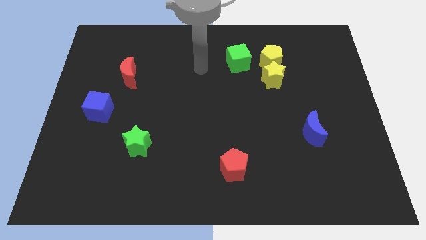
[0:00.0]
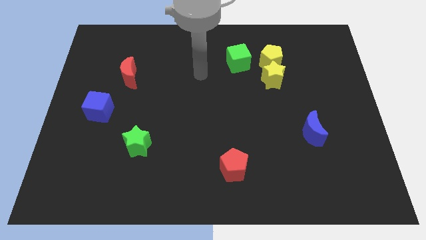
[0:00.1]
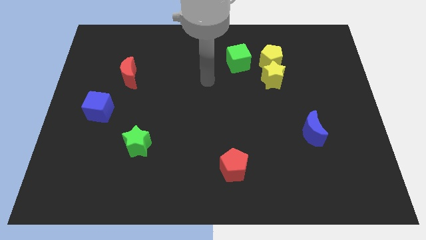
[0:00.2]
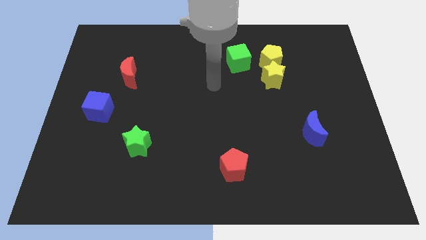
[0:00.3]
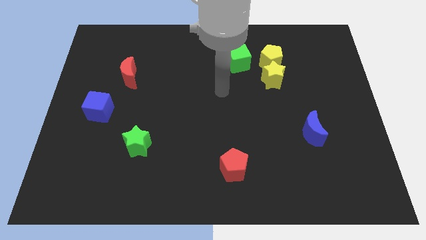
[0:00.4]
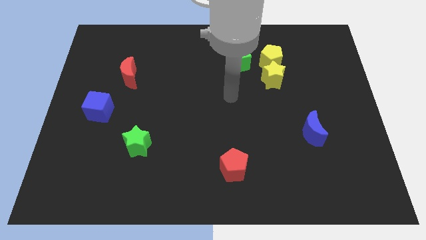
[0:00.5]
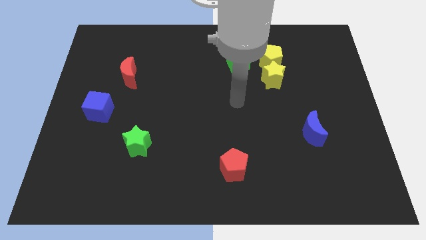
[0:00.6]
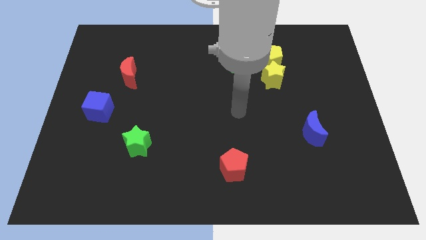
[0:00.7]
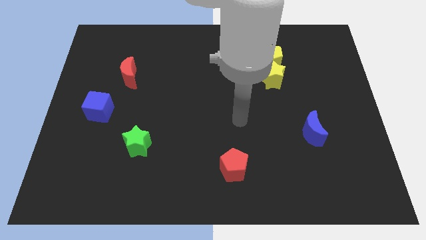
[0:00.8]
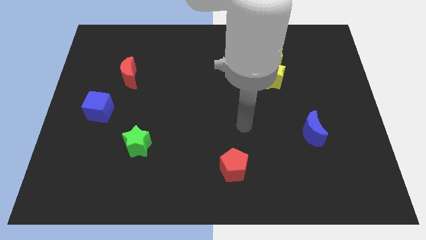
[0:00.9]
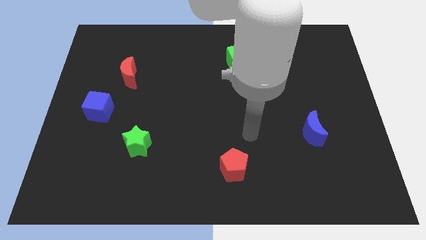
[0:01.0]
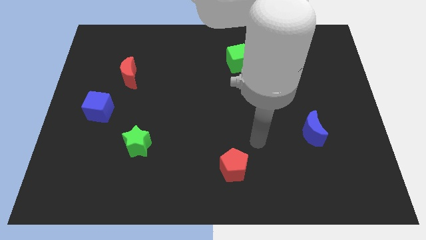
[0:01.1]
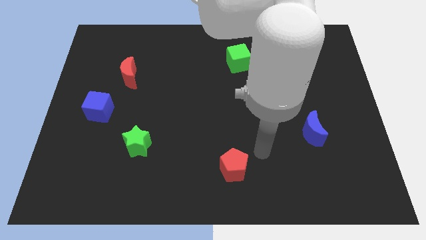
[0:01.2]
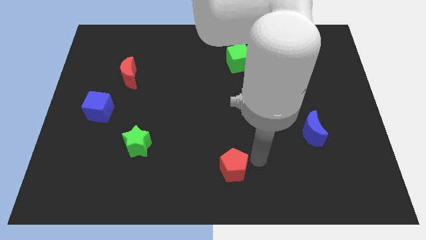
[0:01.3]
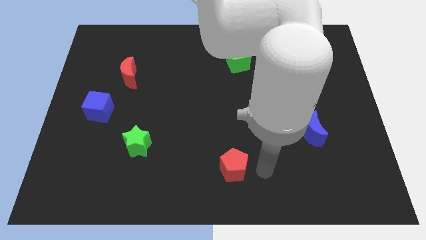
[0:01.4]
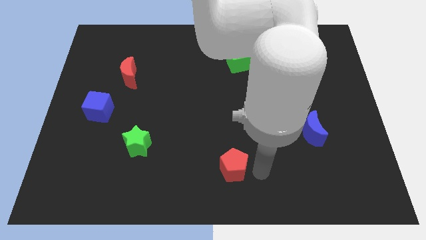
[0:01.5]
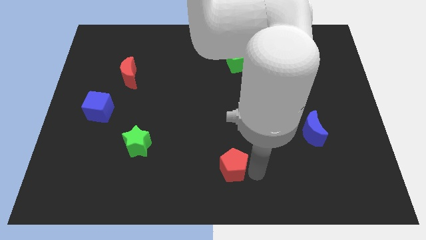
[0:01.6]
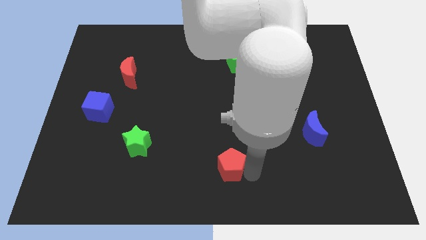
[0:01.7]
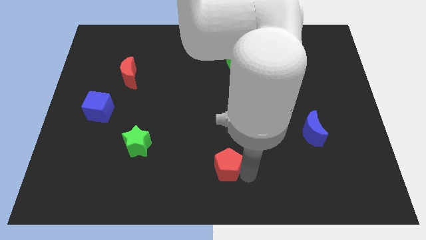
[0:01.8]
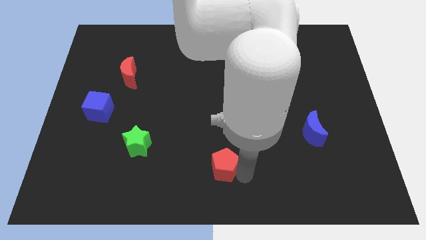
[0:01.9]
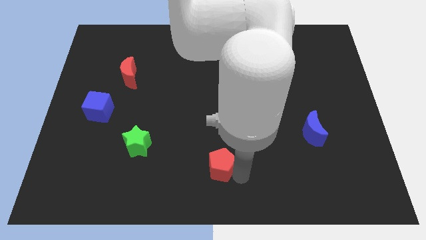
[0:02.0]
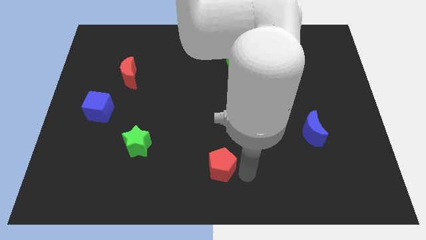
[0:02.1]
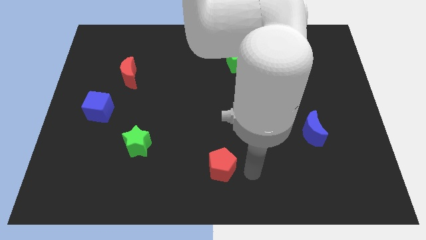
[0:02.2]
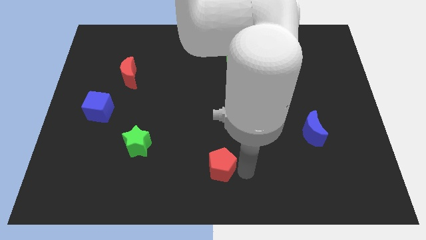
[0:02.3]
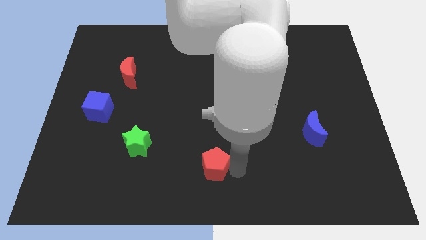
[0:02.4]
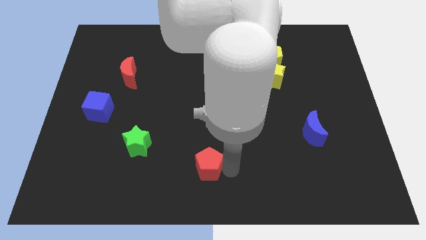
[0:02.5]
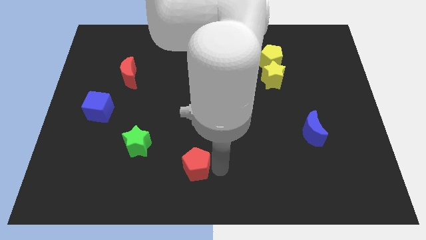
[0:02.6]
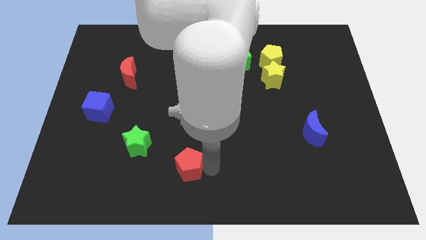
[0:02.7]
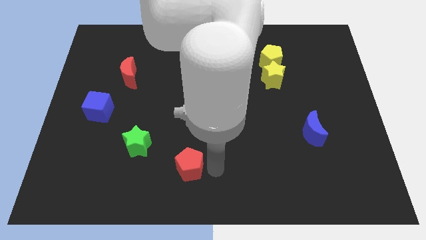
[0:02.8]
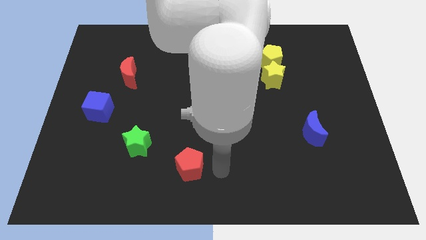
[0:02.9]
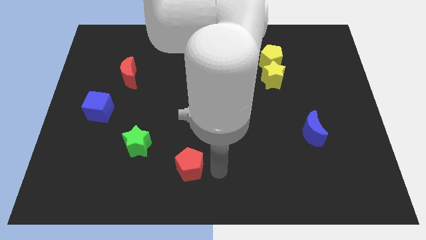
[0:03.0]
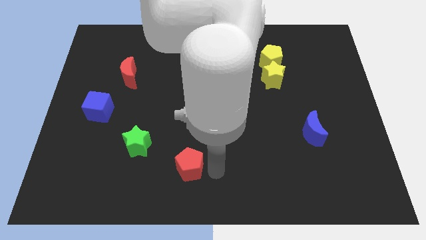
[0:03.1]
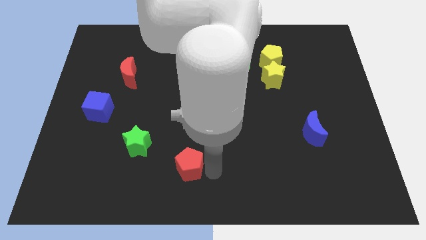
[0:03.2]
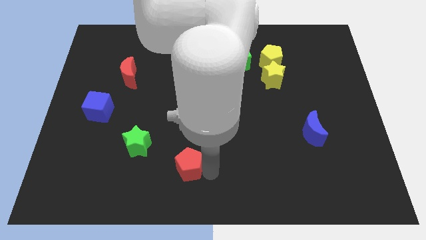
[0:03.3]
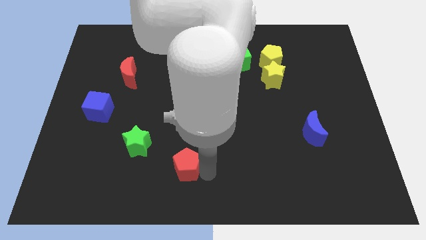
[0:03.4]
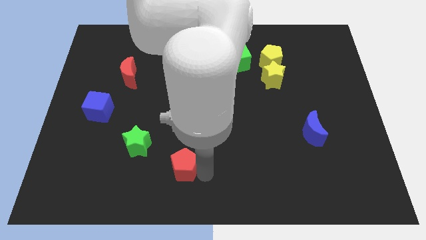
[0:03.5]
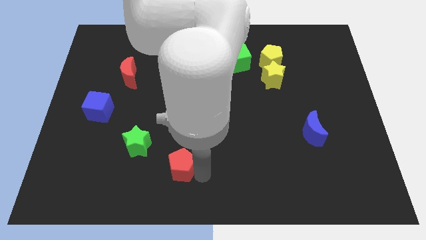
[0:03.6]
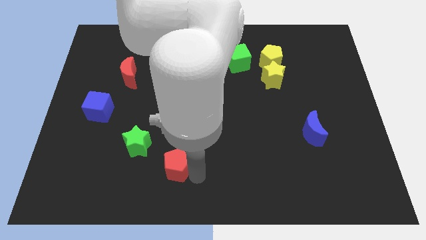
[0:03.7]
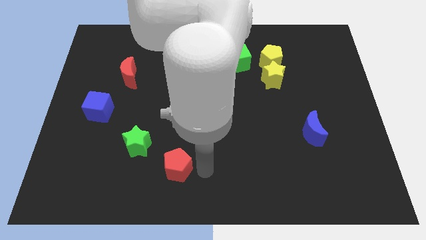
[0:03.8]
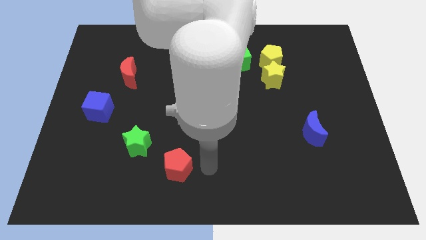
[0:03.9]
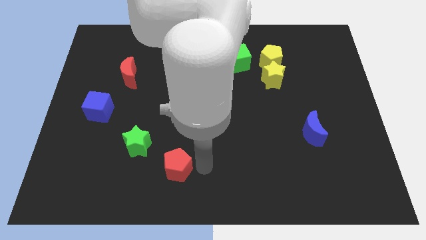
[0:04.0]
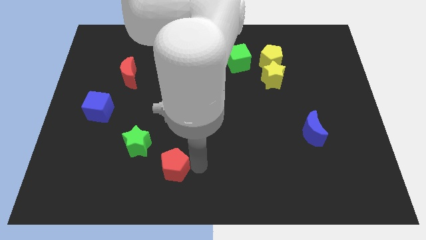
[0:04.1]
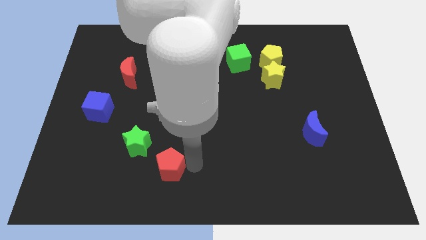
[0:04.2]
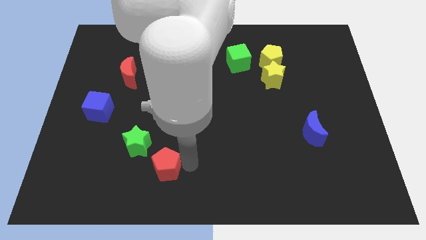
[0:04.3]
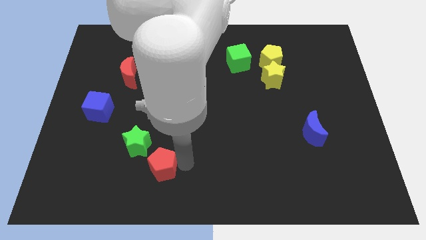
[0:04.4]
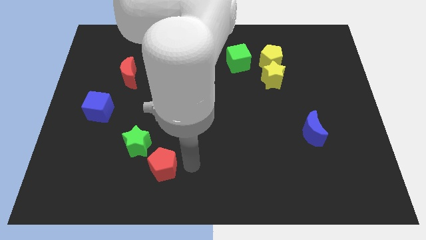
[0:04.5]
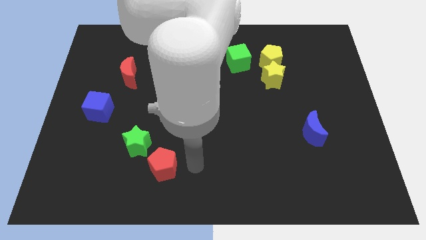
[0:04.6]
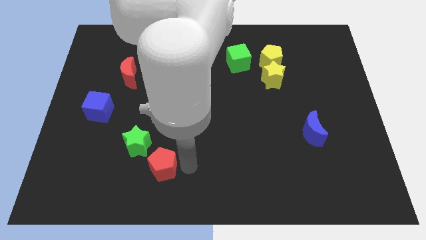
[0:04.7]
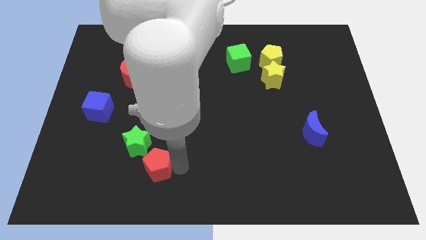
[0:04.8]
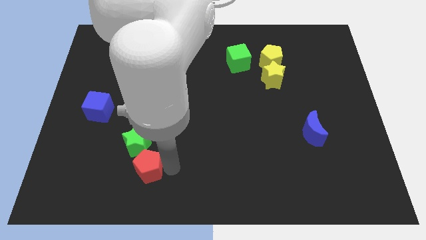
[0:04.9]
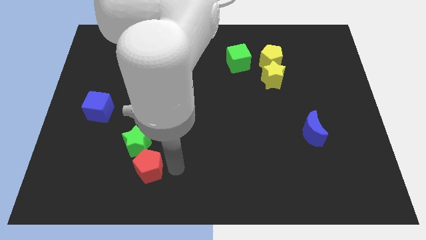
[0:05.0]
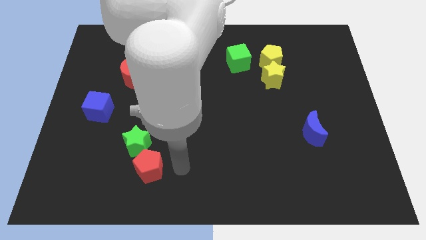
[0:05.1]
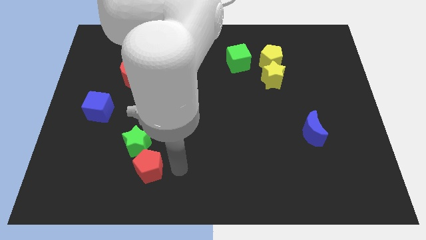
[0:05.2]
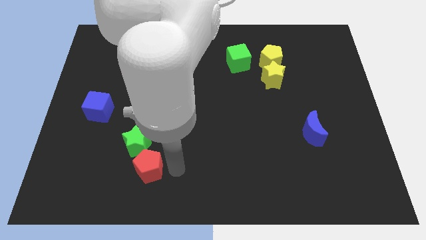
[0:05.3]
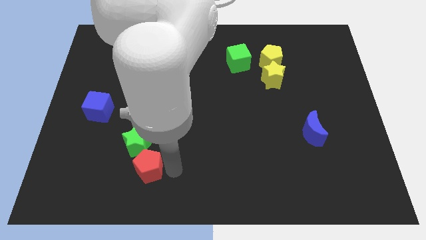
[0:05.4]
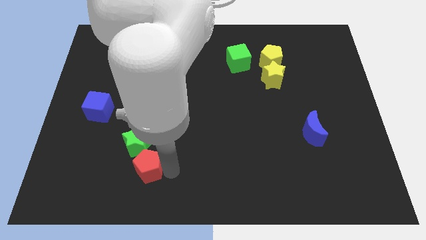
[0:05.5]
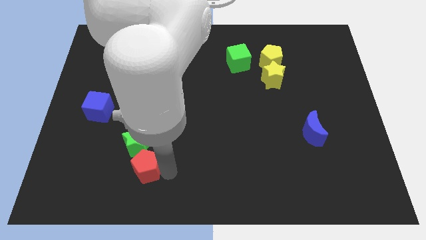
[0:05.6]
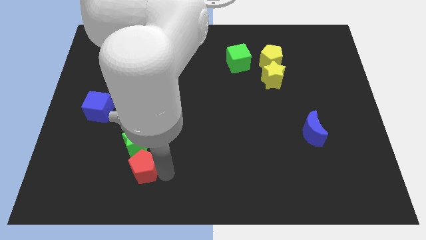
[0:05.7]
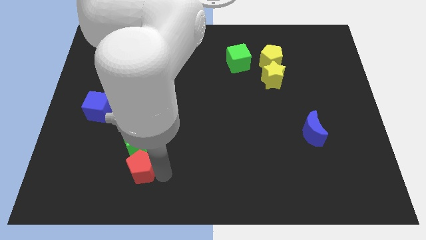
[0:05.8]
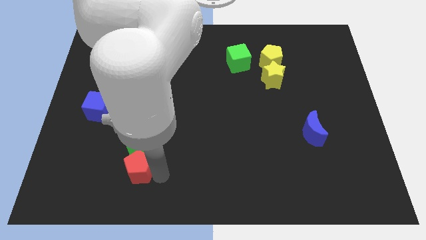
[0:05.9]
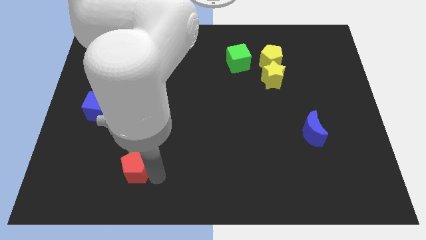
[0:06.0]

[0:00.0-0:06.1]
slide the red pentagon to the left

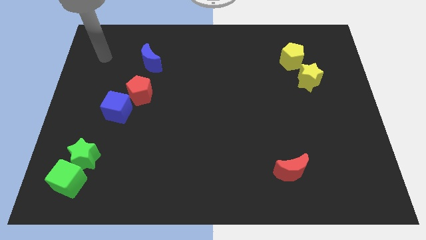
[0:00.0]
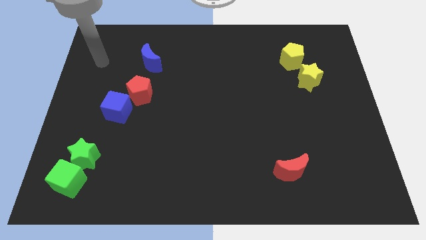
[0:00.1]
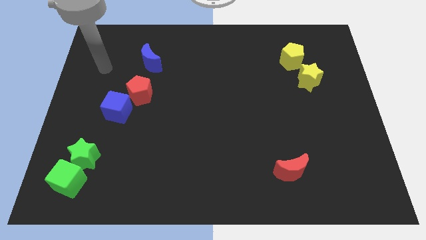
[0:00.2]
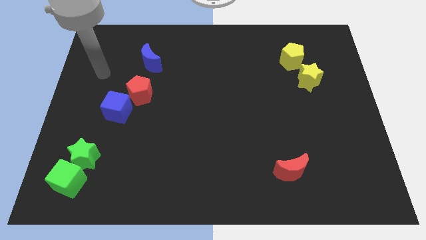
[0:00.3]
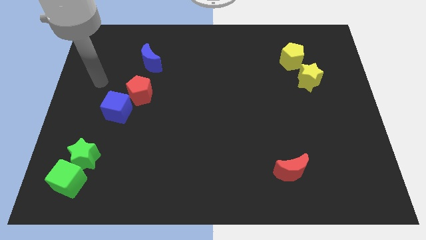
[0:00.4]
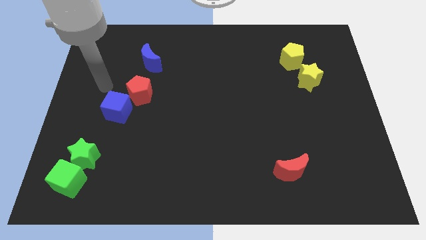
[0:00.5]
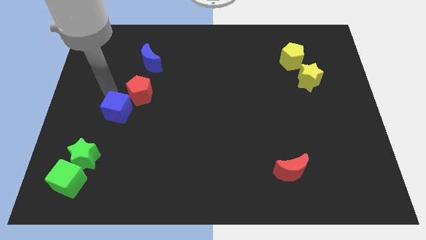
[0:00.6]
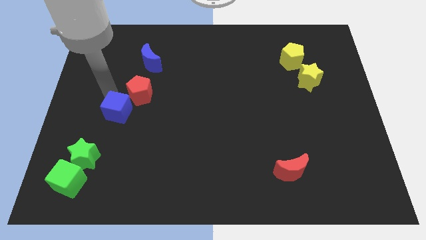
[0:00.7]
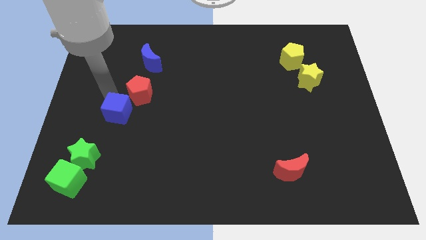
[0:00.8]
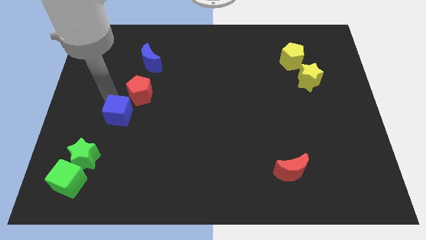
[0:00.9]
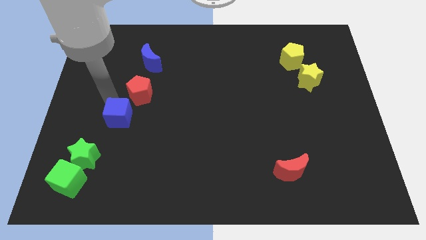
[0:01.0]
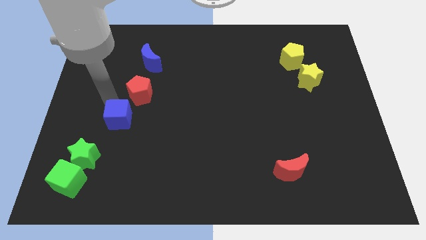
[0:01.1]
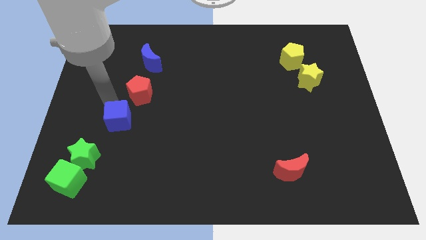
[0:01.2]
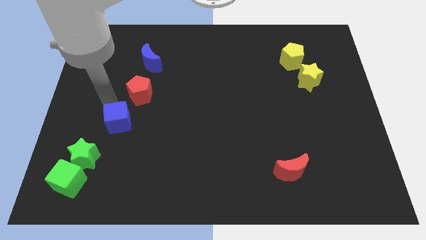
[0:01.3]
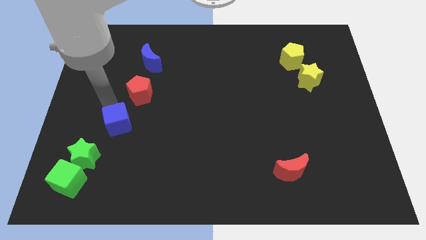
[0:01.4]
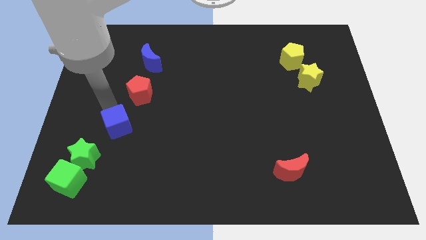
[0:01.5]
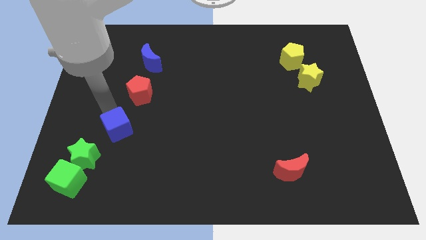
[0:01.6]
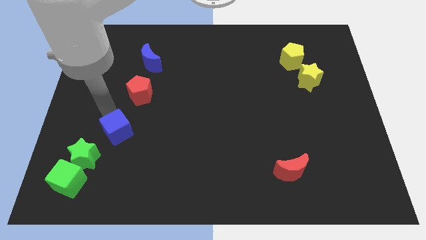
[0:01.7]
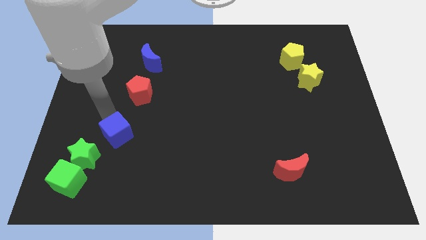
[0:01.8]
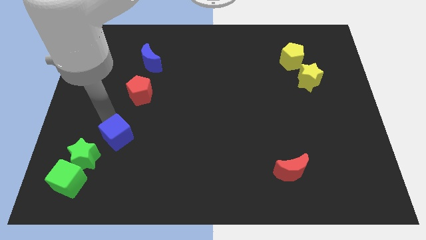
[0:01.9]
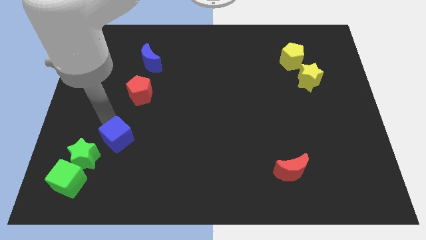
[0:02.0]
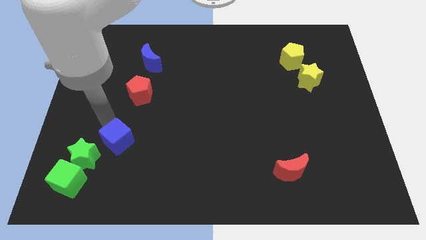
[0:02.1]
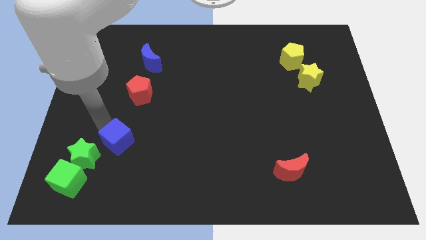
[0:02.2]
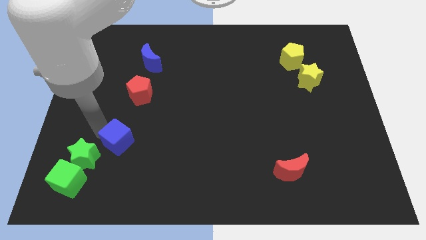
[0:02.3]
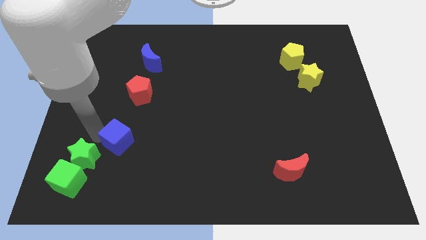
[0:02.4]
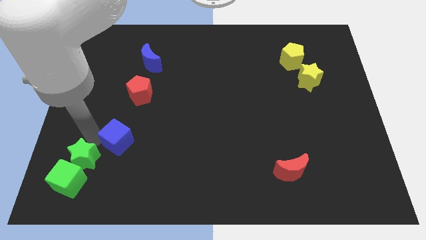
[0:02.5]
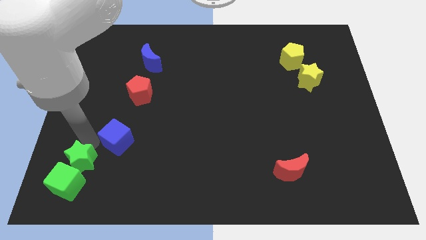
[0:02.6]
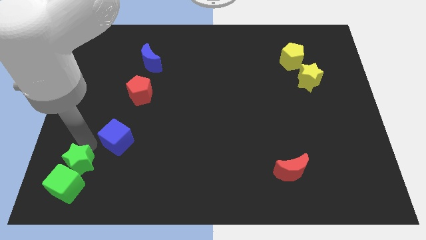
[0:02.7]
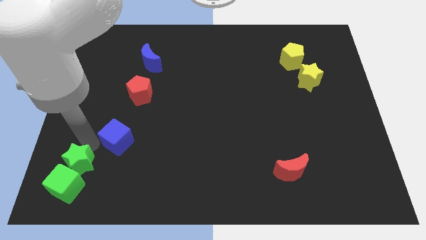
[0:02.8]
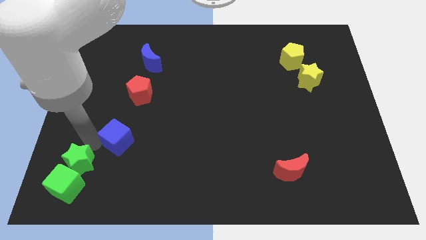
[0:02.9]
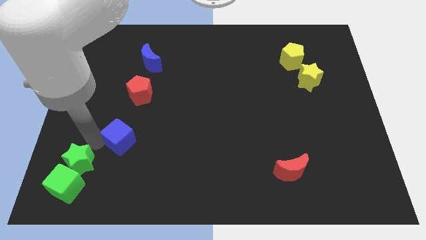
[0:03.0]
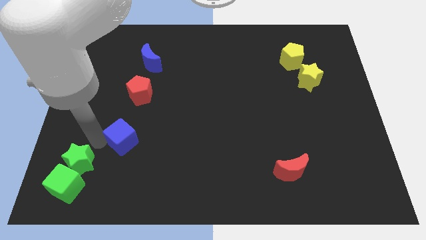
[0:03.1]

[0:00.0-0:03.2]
move the blue cube slightly down and then right
